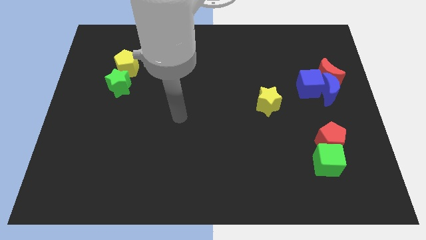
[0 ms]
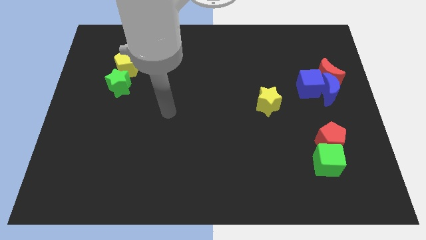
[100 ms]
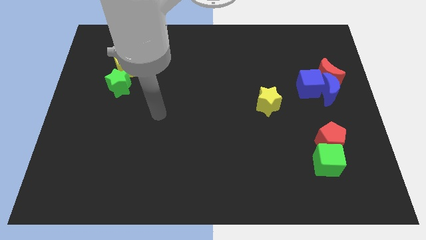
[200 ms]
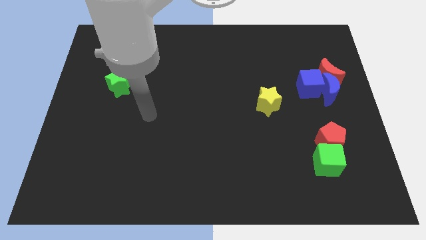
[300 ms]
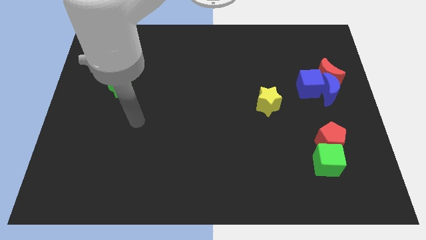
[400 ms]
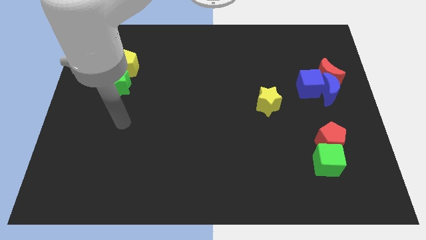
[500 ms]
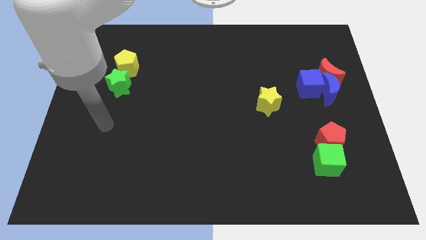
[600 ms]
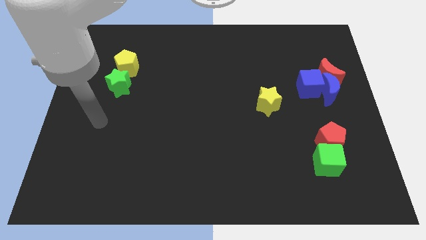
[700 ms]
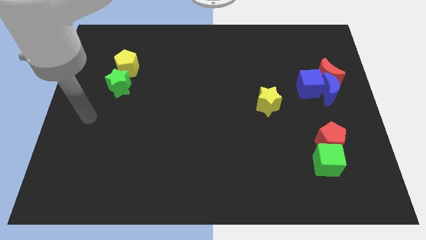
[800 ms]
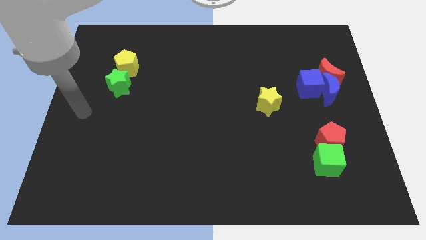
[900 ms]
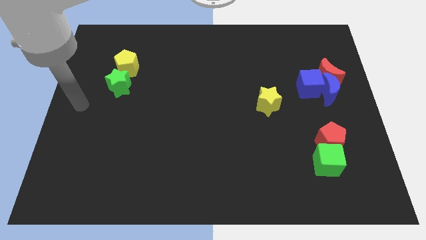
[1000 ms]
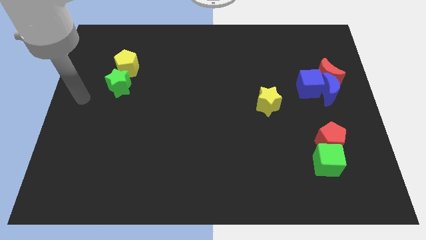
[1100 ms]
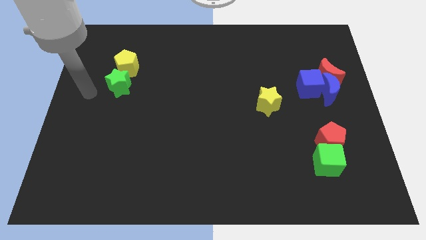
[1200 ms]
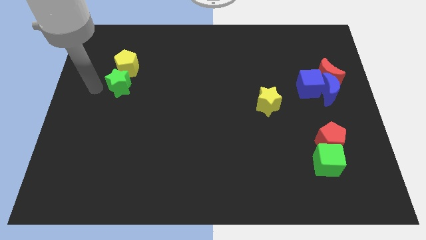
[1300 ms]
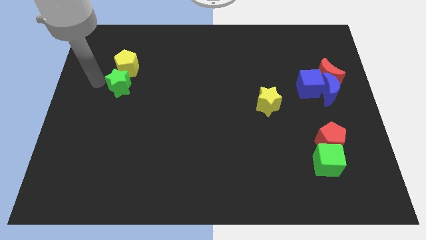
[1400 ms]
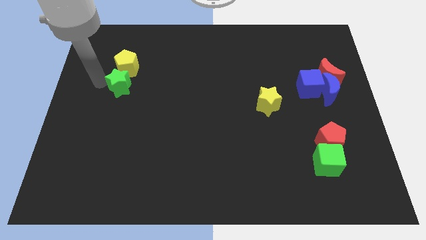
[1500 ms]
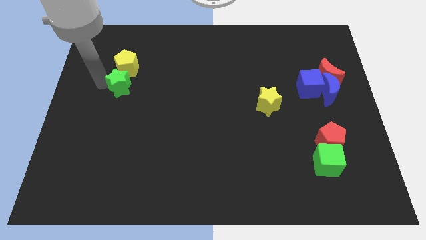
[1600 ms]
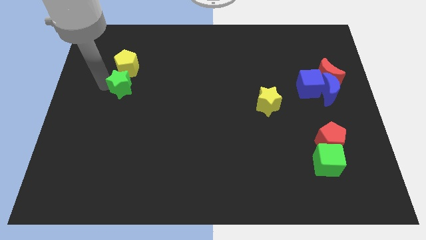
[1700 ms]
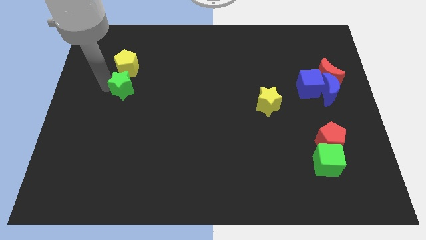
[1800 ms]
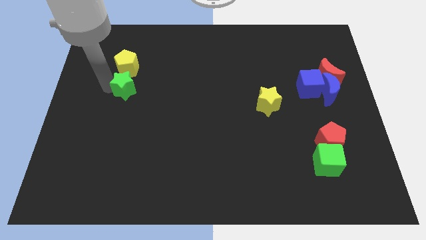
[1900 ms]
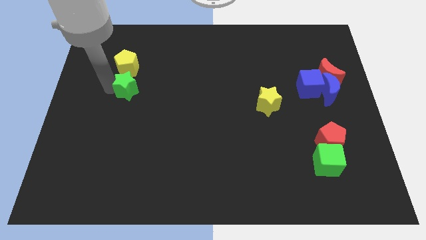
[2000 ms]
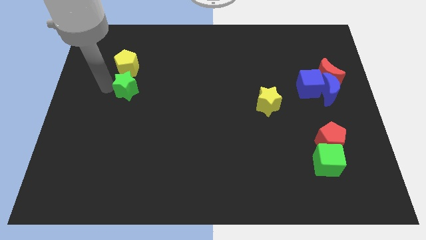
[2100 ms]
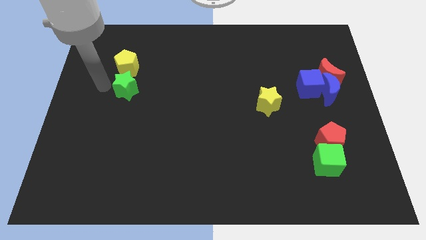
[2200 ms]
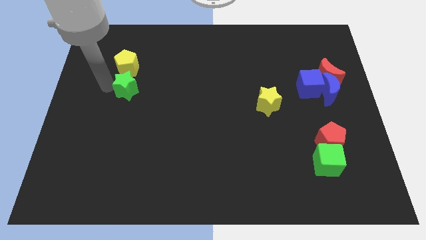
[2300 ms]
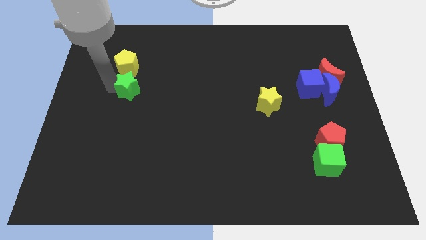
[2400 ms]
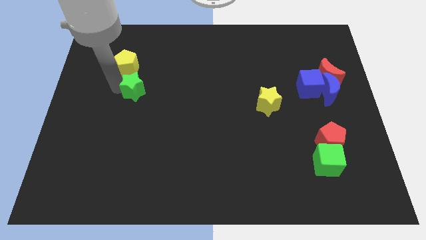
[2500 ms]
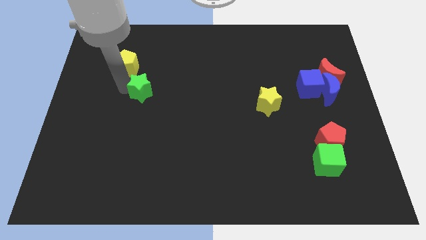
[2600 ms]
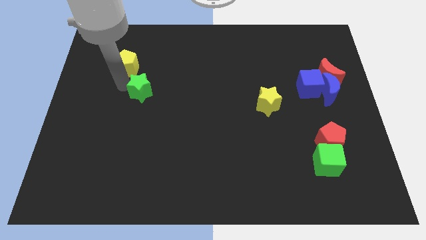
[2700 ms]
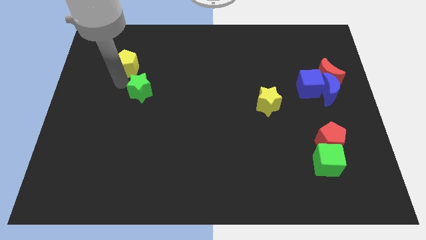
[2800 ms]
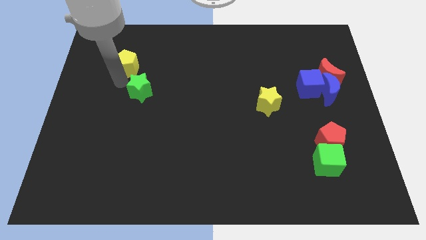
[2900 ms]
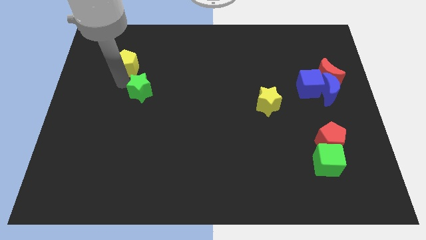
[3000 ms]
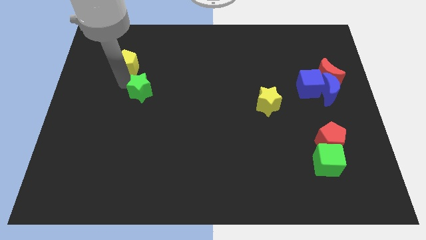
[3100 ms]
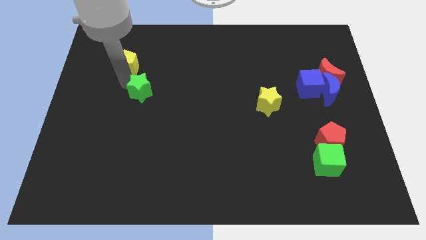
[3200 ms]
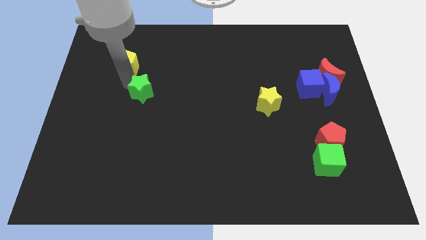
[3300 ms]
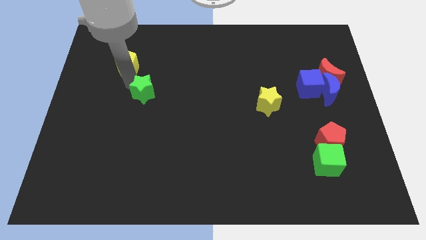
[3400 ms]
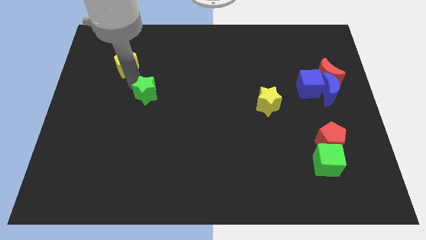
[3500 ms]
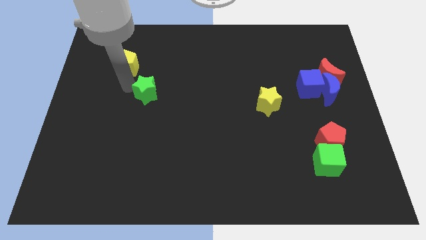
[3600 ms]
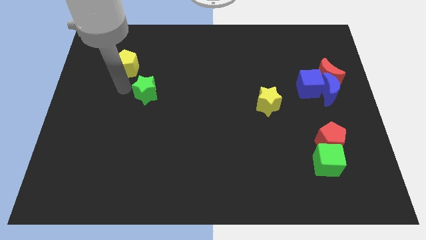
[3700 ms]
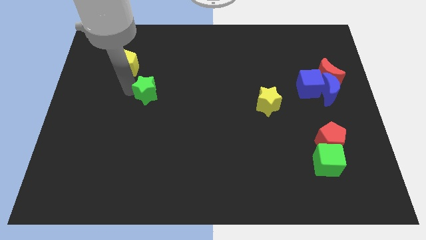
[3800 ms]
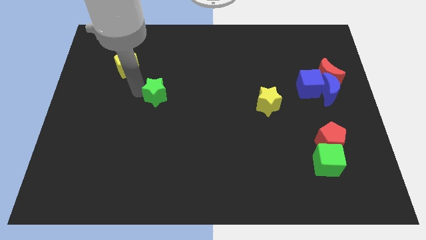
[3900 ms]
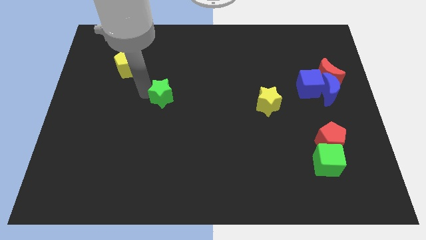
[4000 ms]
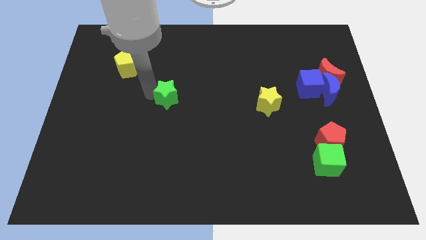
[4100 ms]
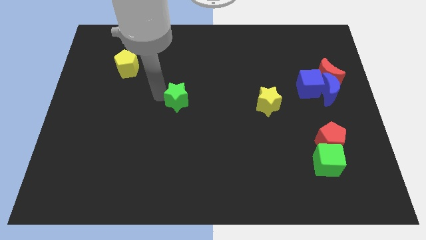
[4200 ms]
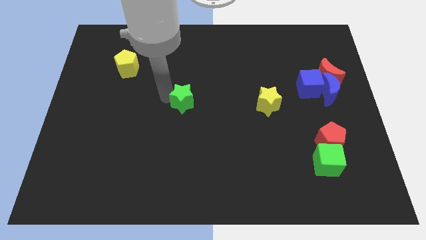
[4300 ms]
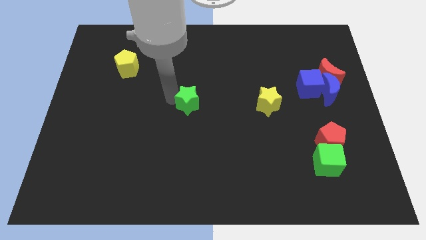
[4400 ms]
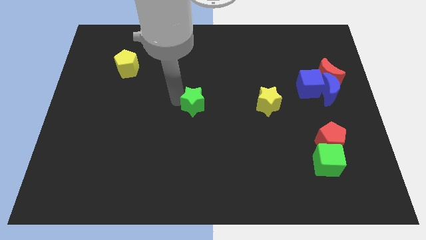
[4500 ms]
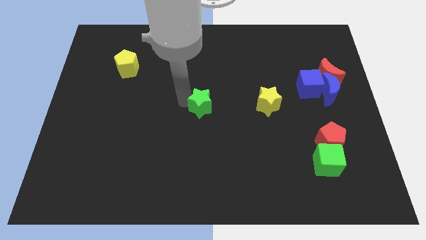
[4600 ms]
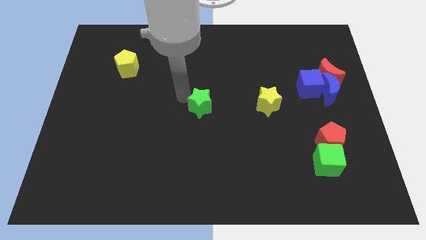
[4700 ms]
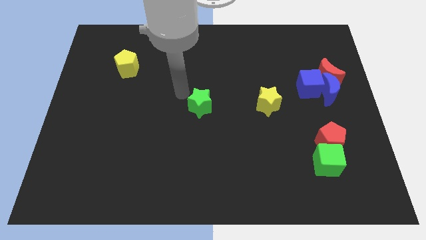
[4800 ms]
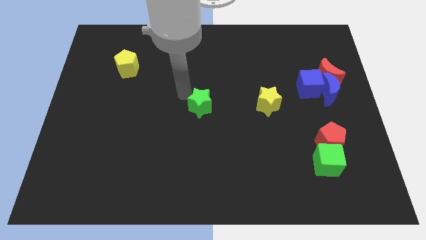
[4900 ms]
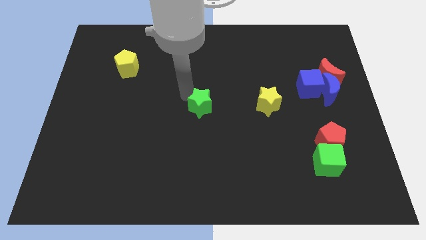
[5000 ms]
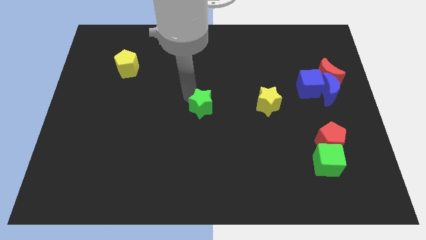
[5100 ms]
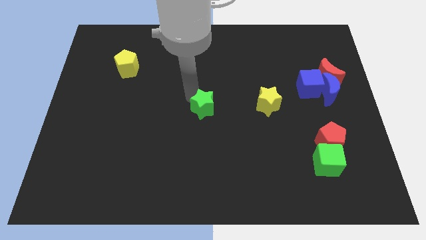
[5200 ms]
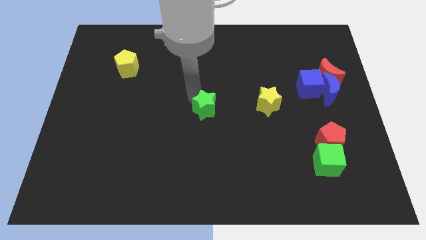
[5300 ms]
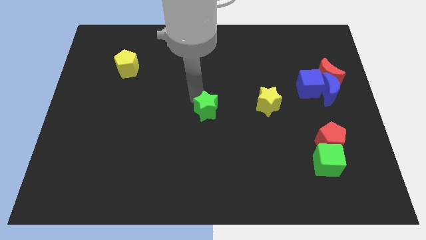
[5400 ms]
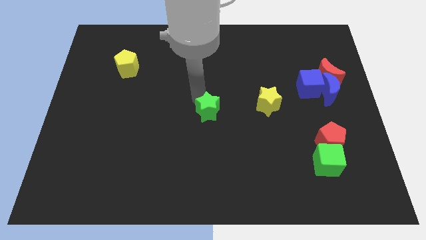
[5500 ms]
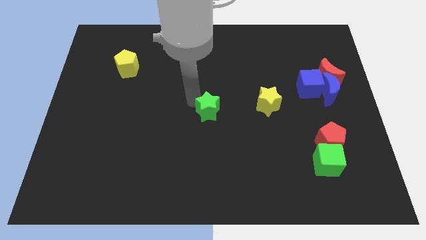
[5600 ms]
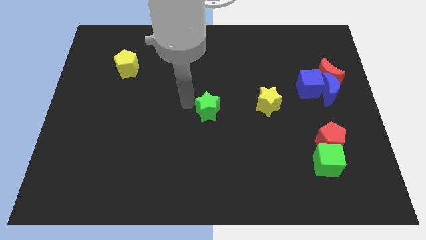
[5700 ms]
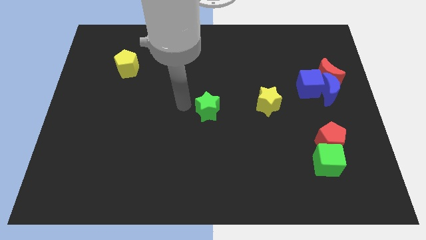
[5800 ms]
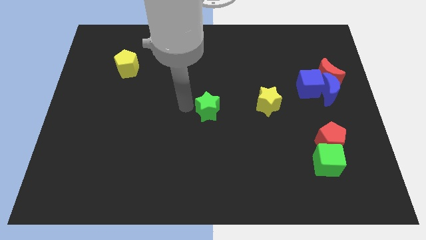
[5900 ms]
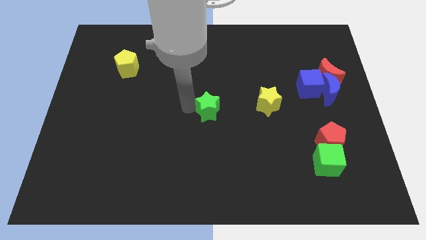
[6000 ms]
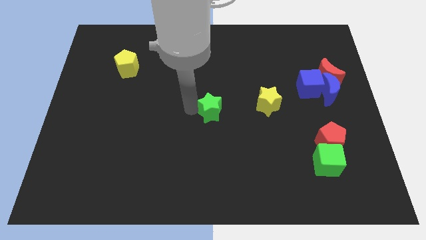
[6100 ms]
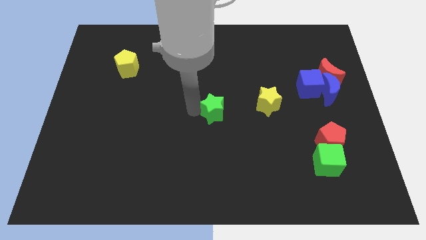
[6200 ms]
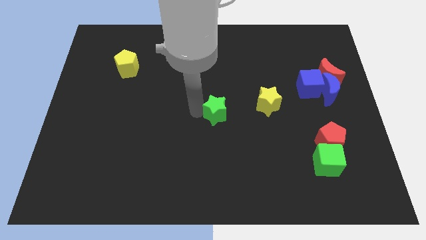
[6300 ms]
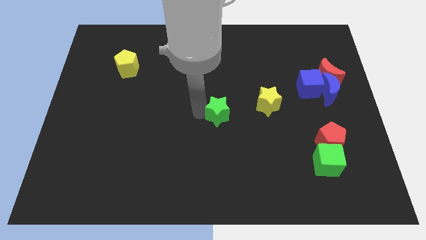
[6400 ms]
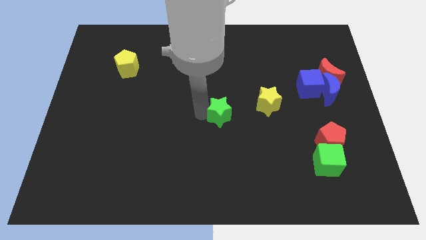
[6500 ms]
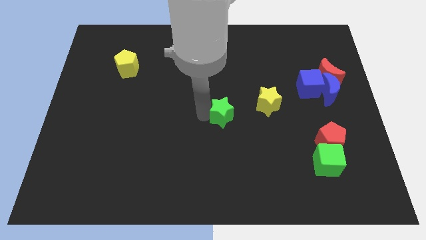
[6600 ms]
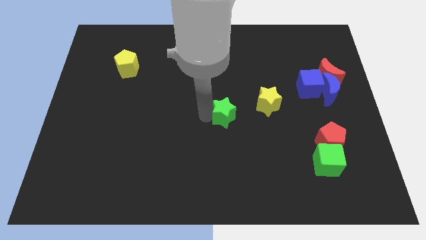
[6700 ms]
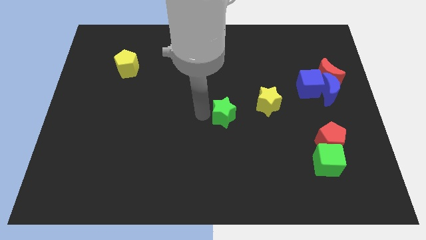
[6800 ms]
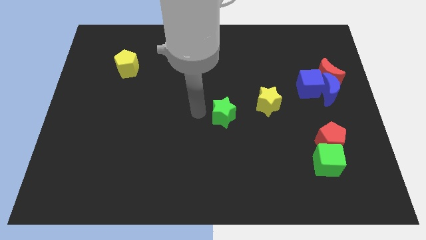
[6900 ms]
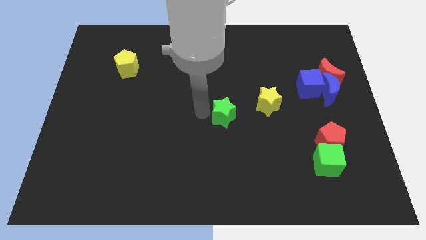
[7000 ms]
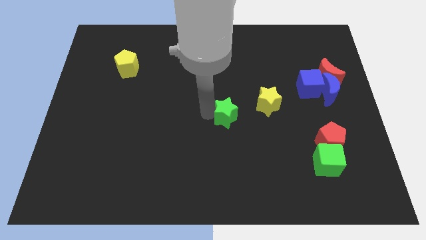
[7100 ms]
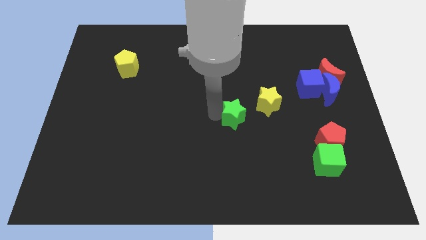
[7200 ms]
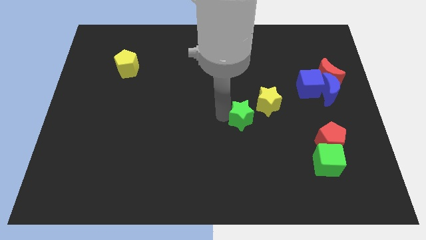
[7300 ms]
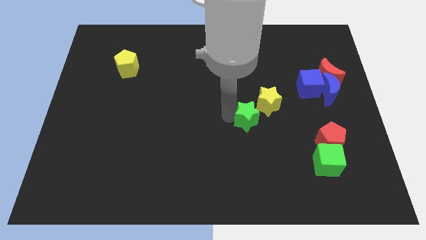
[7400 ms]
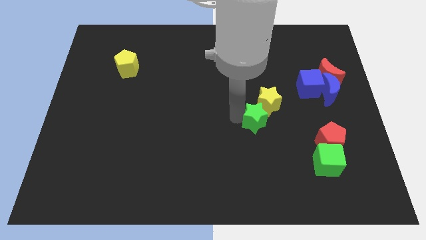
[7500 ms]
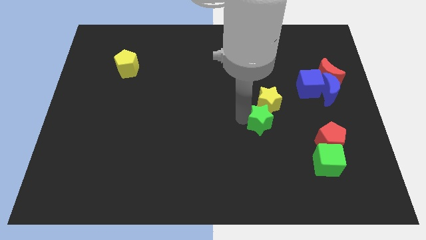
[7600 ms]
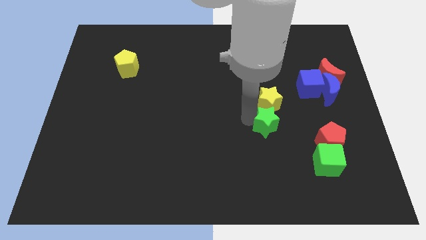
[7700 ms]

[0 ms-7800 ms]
move the green star diagonally down and to the right of the yellow star
